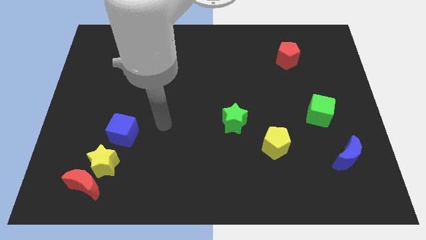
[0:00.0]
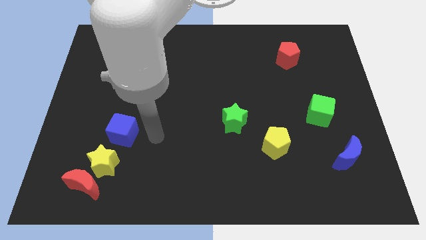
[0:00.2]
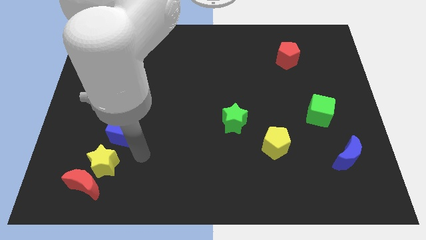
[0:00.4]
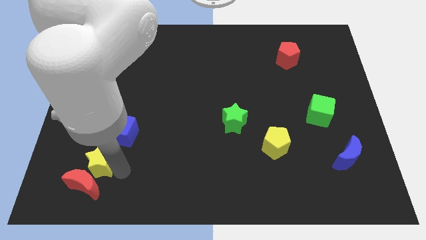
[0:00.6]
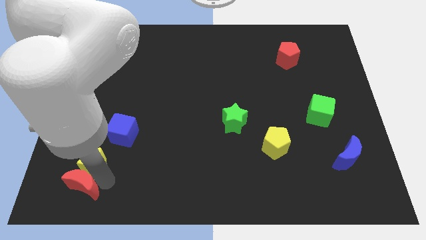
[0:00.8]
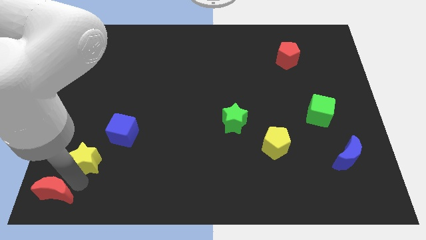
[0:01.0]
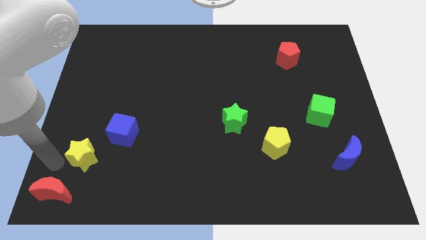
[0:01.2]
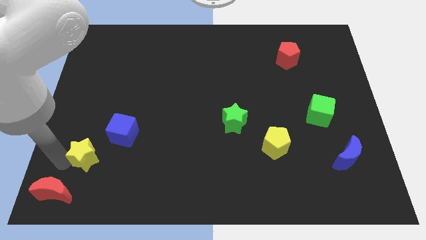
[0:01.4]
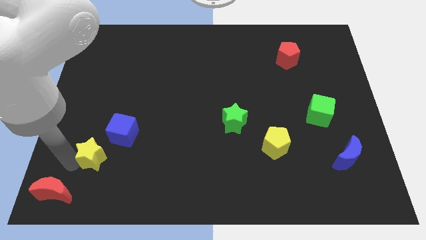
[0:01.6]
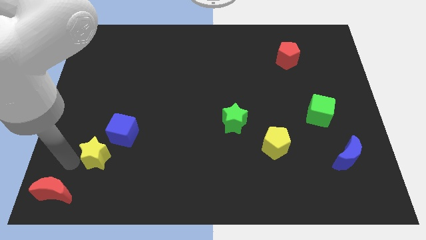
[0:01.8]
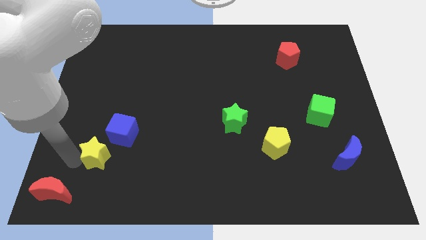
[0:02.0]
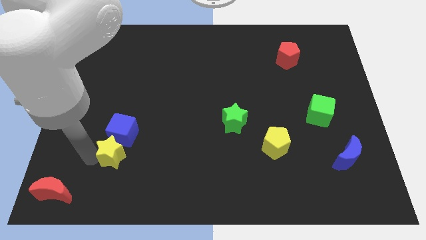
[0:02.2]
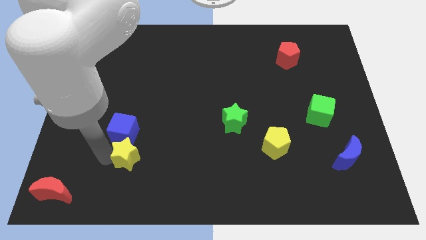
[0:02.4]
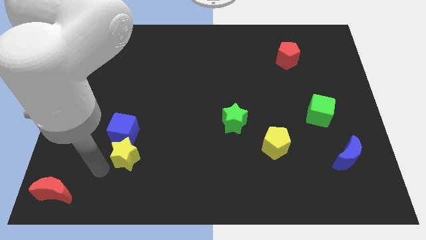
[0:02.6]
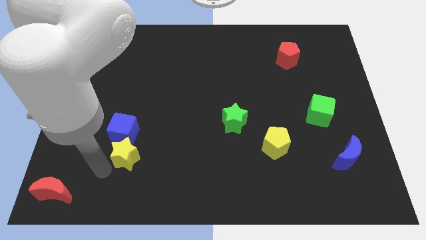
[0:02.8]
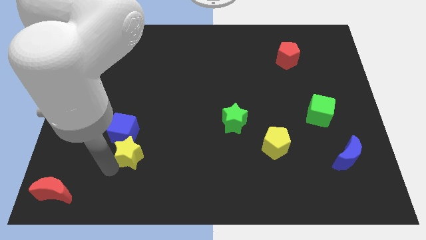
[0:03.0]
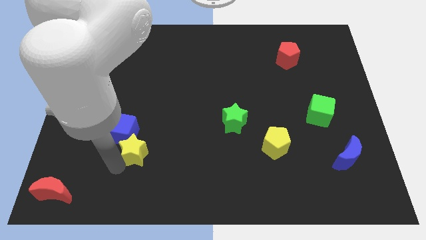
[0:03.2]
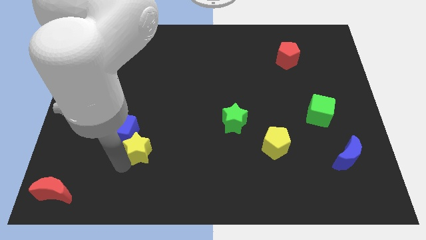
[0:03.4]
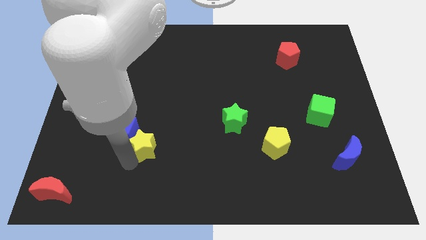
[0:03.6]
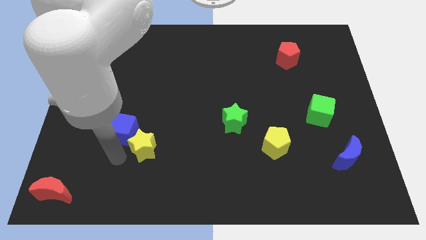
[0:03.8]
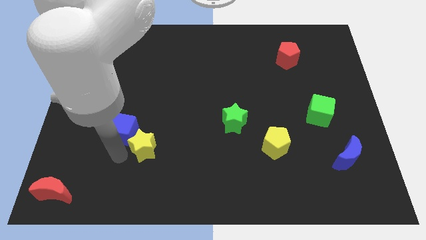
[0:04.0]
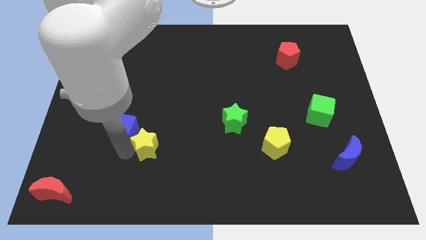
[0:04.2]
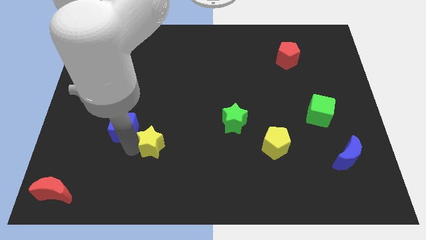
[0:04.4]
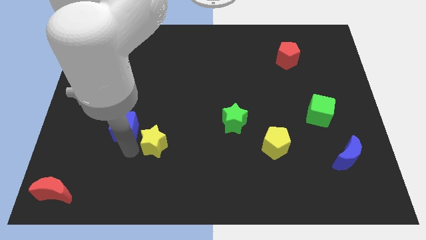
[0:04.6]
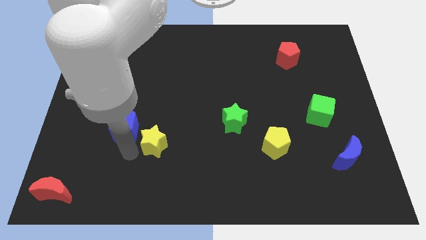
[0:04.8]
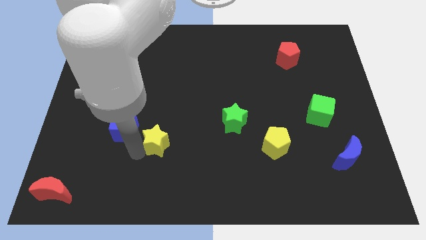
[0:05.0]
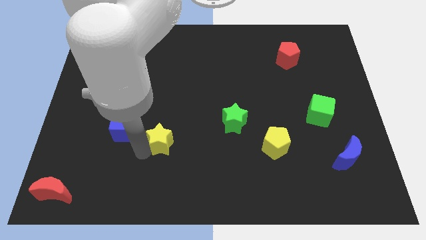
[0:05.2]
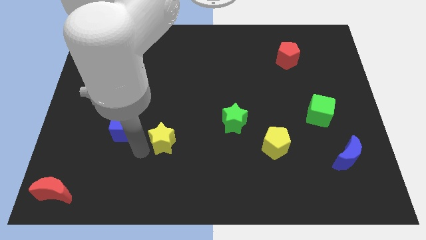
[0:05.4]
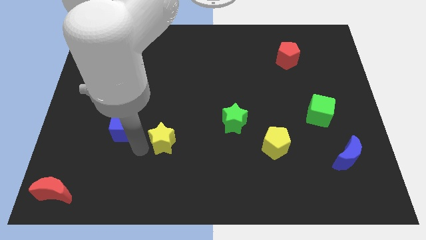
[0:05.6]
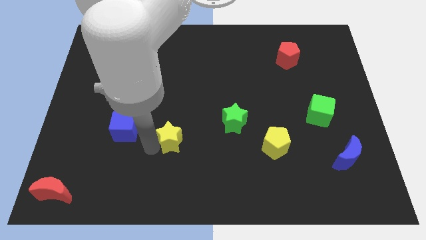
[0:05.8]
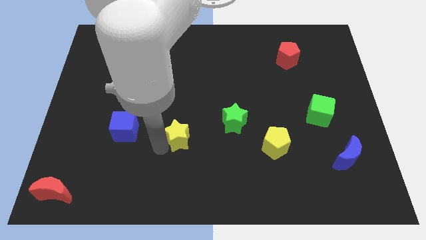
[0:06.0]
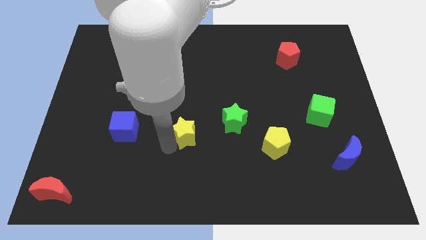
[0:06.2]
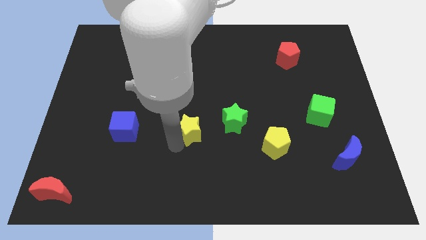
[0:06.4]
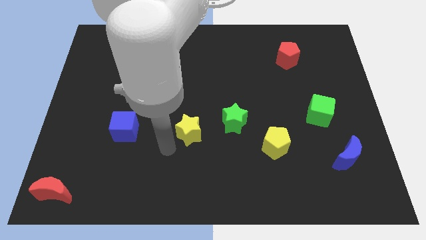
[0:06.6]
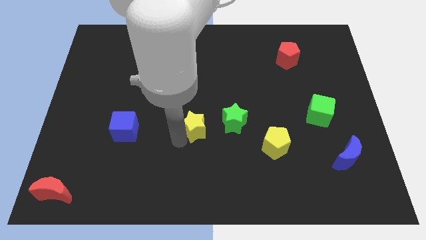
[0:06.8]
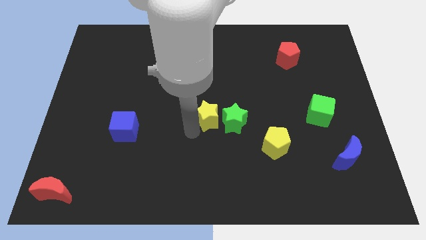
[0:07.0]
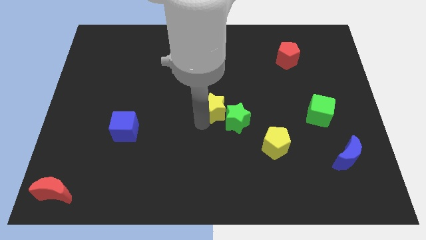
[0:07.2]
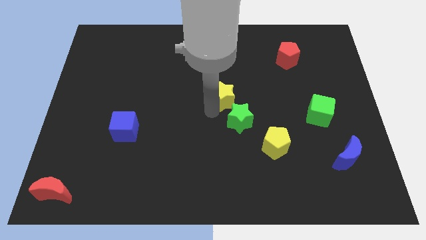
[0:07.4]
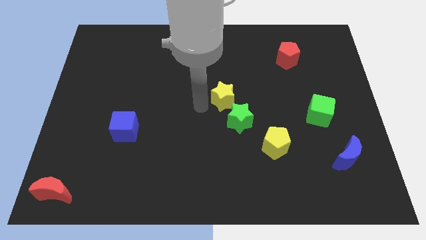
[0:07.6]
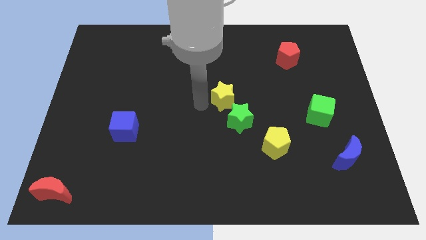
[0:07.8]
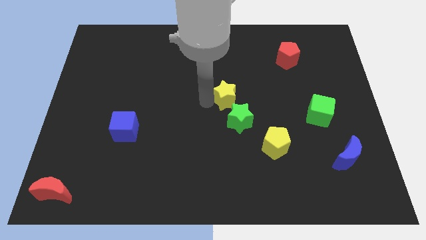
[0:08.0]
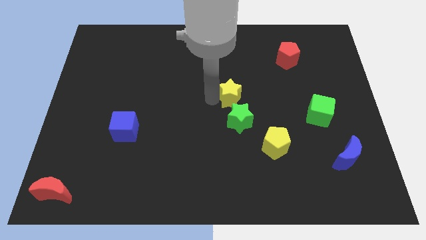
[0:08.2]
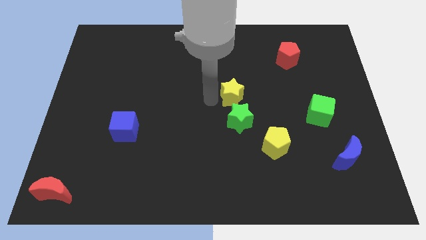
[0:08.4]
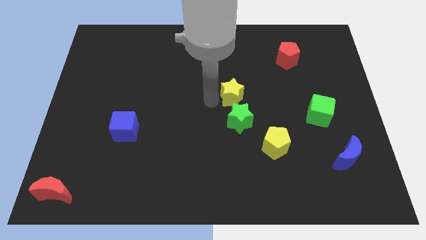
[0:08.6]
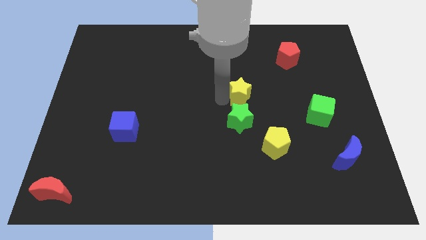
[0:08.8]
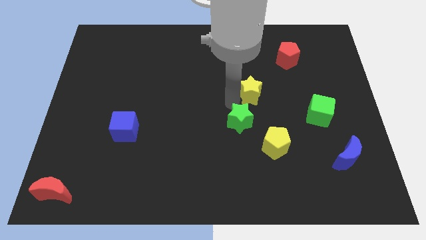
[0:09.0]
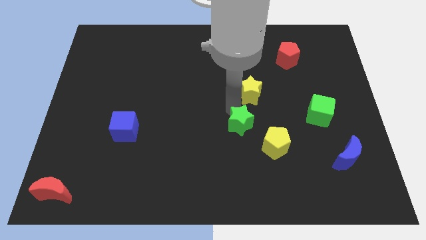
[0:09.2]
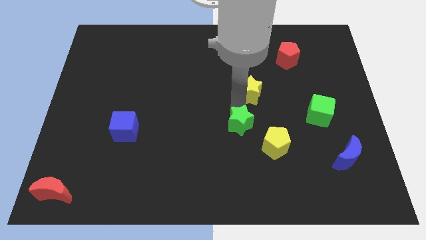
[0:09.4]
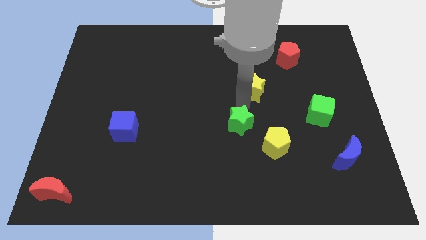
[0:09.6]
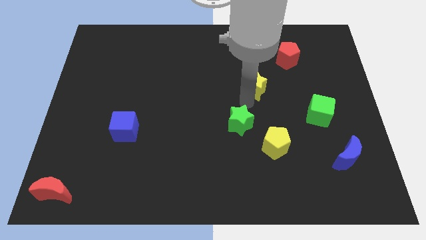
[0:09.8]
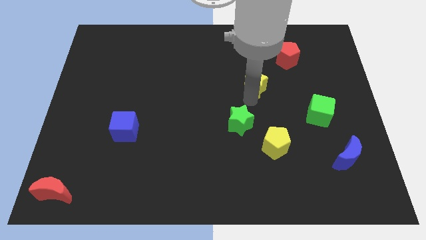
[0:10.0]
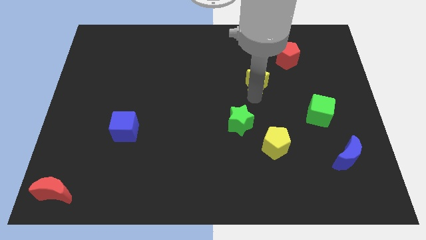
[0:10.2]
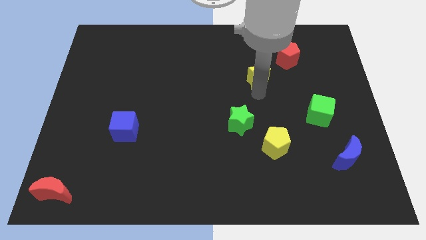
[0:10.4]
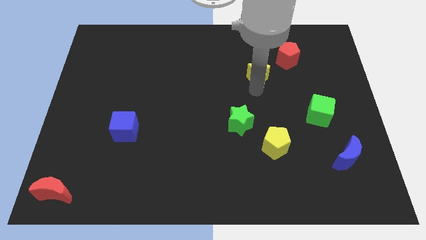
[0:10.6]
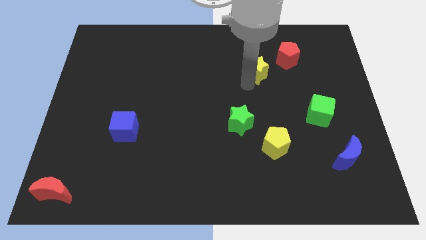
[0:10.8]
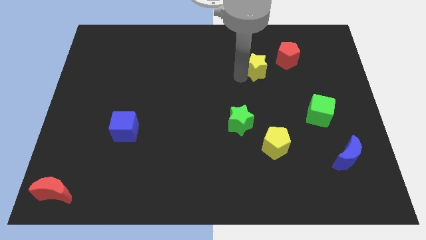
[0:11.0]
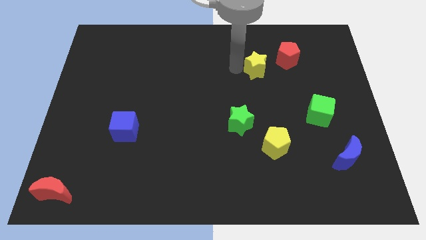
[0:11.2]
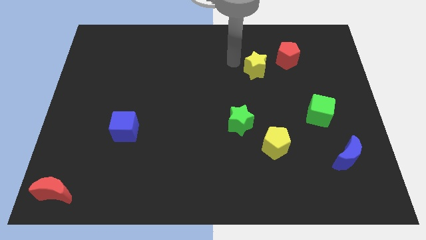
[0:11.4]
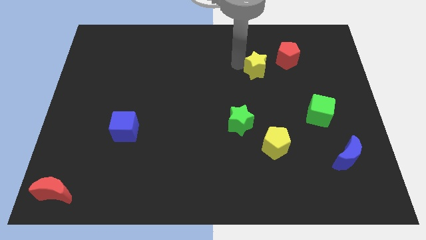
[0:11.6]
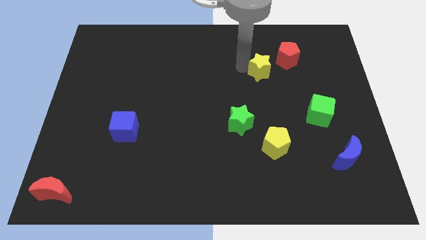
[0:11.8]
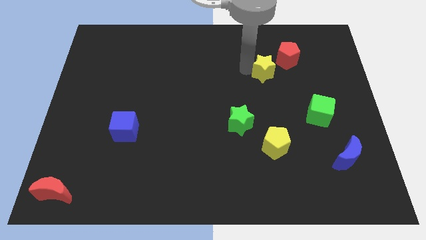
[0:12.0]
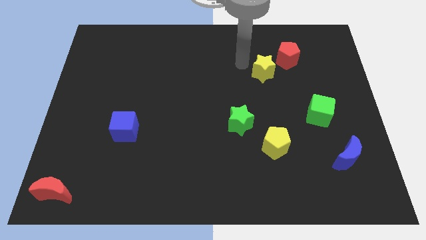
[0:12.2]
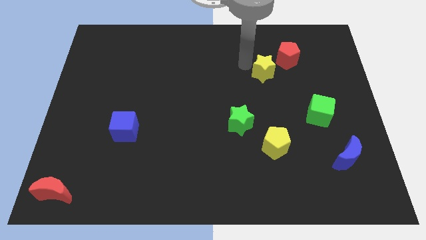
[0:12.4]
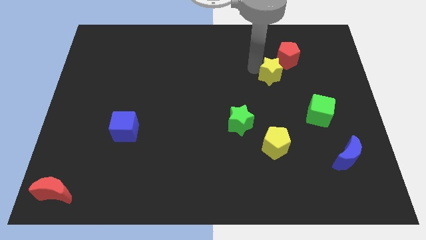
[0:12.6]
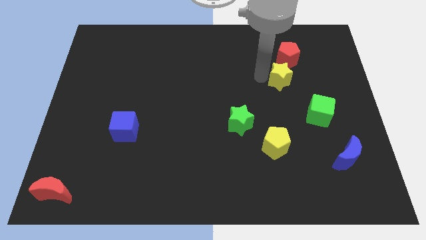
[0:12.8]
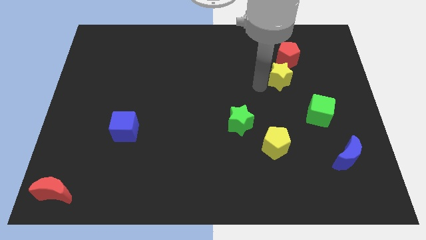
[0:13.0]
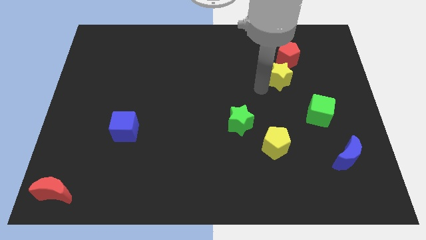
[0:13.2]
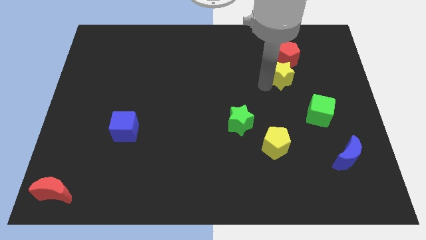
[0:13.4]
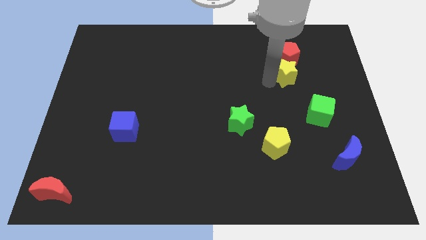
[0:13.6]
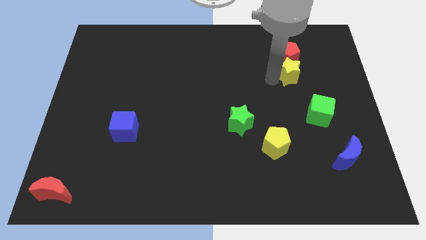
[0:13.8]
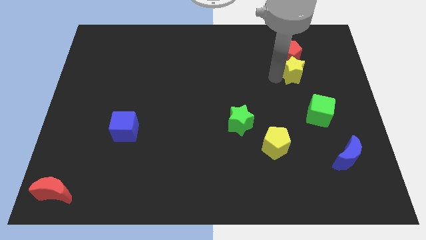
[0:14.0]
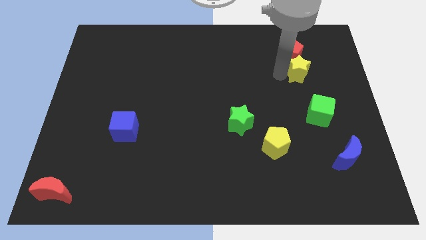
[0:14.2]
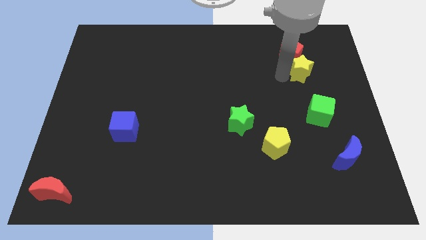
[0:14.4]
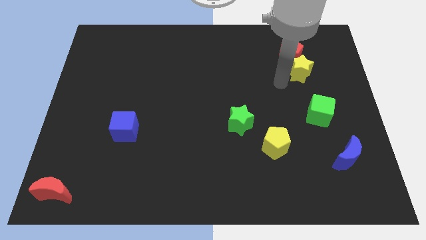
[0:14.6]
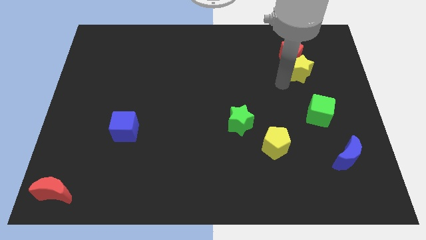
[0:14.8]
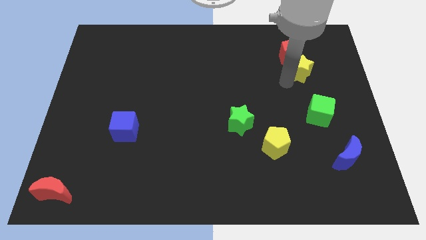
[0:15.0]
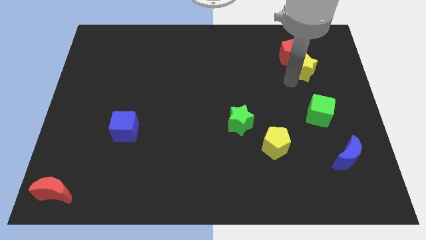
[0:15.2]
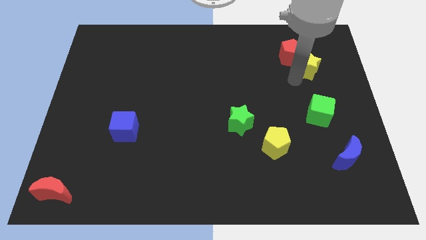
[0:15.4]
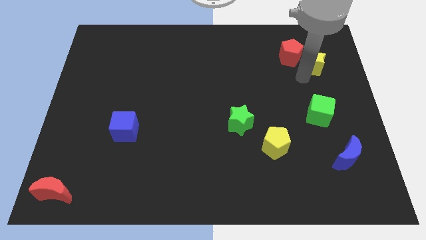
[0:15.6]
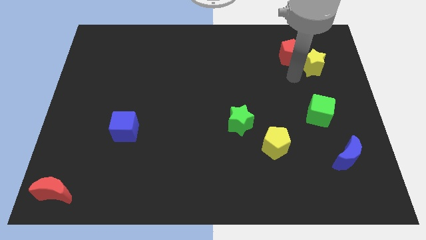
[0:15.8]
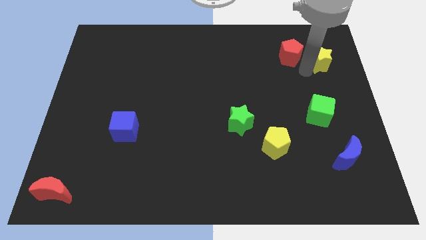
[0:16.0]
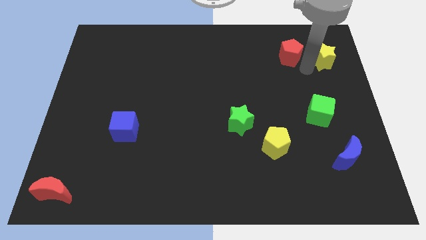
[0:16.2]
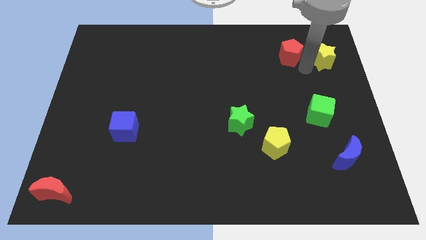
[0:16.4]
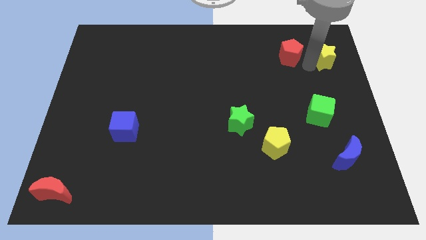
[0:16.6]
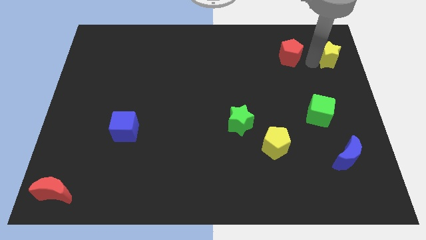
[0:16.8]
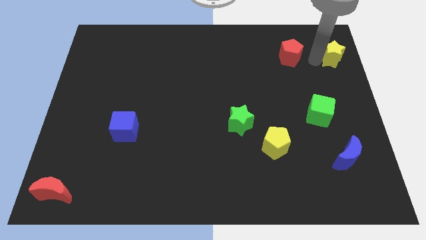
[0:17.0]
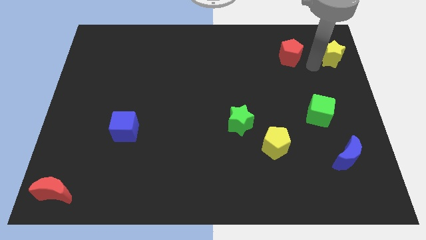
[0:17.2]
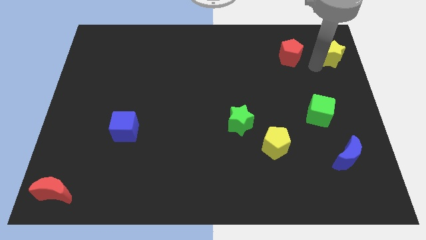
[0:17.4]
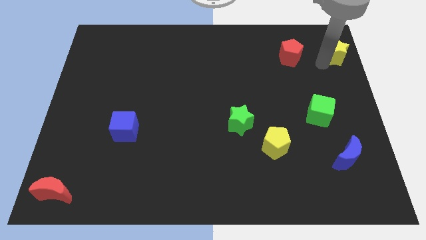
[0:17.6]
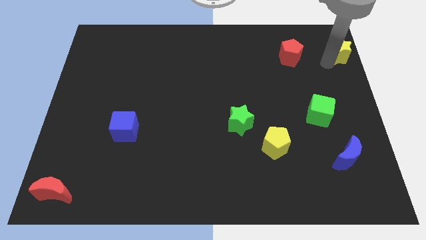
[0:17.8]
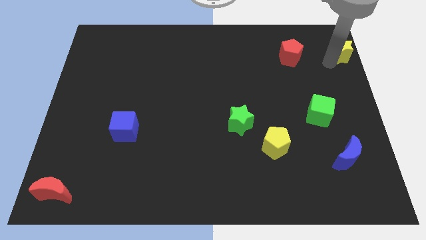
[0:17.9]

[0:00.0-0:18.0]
move the yellow star to the top right corner
